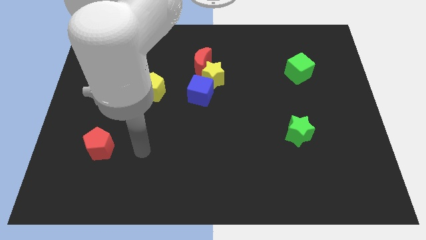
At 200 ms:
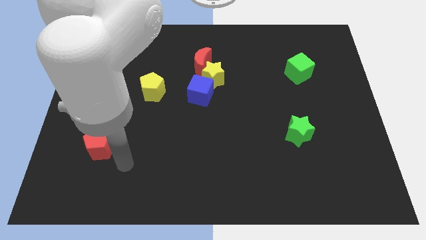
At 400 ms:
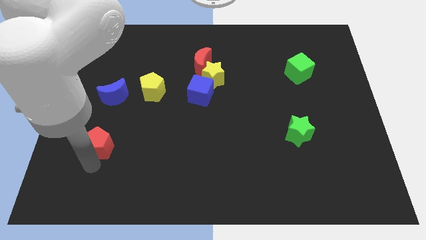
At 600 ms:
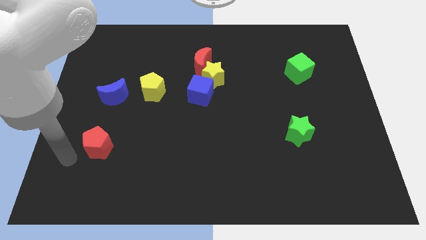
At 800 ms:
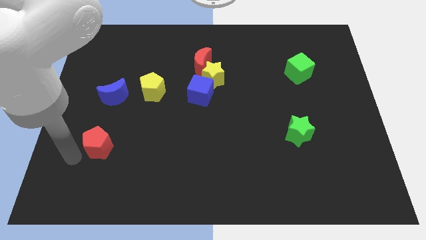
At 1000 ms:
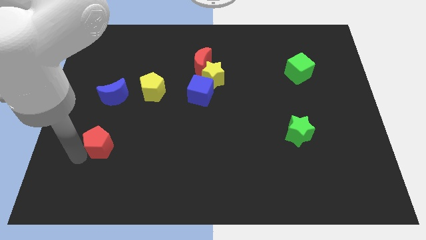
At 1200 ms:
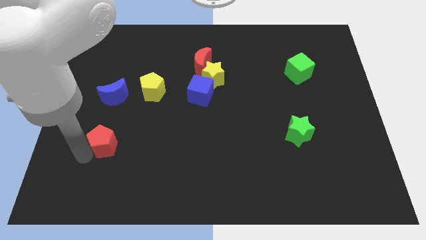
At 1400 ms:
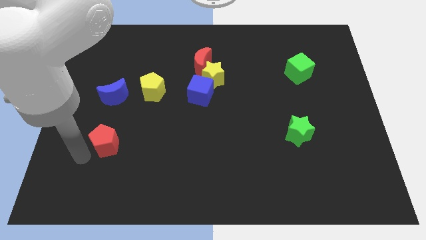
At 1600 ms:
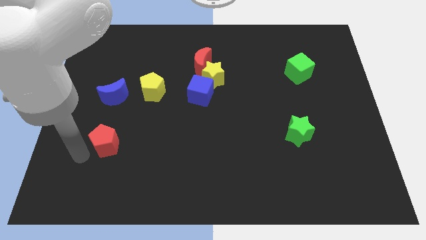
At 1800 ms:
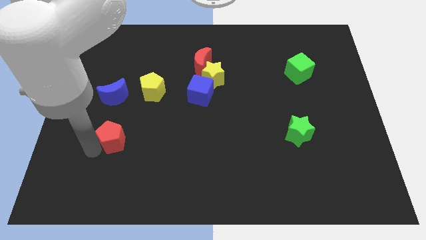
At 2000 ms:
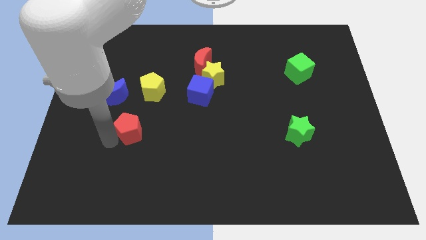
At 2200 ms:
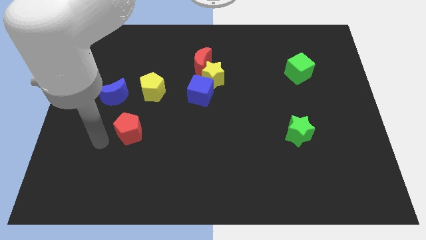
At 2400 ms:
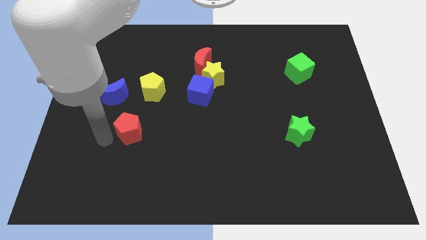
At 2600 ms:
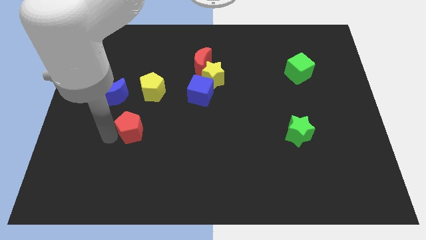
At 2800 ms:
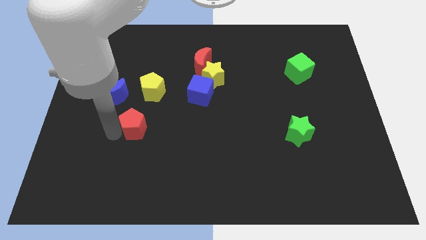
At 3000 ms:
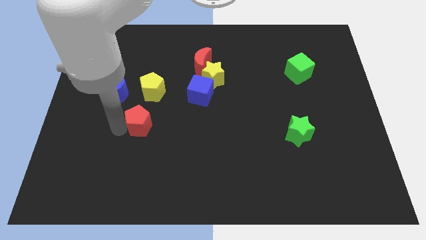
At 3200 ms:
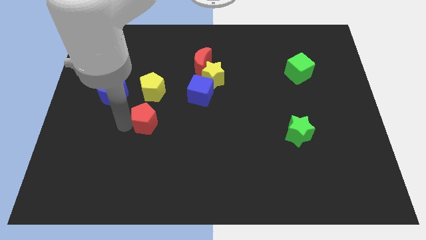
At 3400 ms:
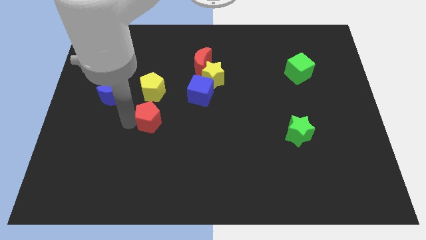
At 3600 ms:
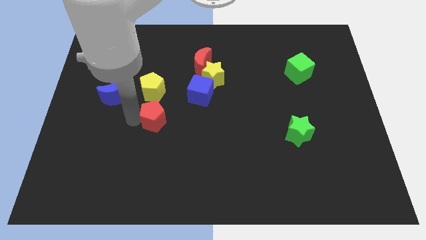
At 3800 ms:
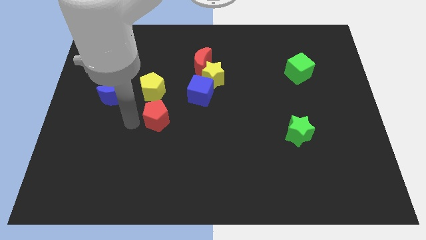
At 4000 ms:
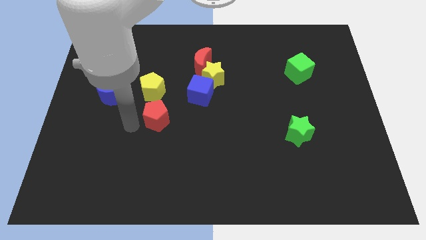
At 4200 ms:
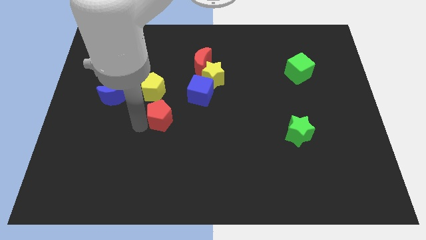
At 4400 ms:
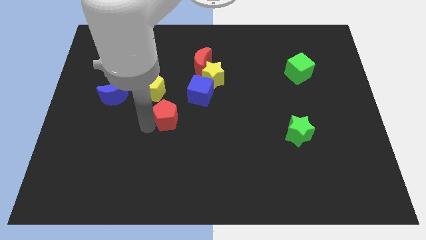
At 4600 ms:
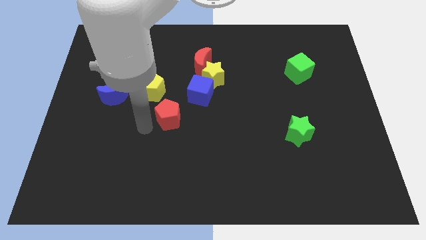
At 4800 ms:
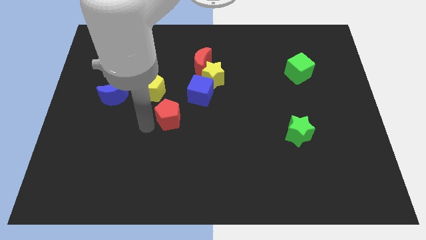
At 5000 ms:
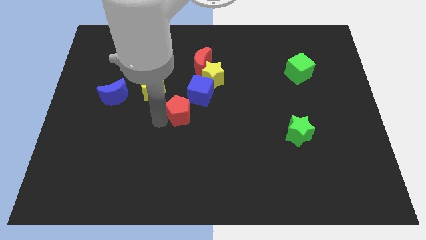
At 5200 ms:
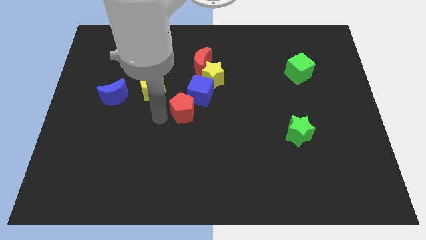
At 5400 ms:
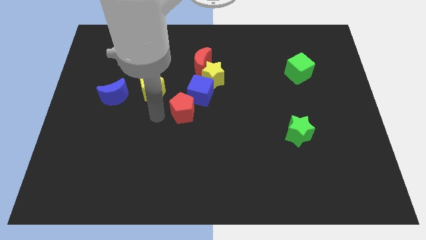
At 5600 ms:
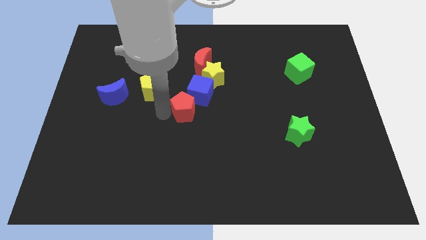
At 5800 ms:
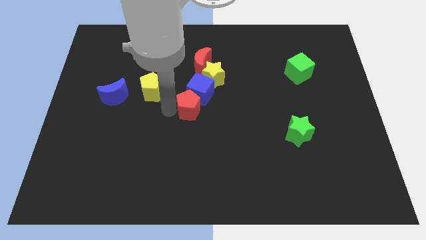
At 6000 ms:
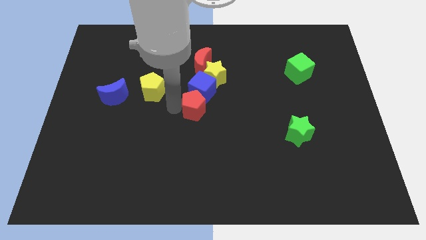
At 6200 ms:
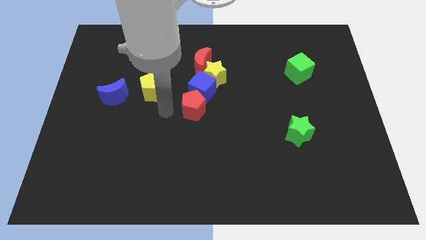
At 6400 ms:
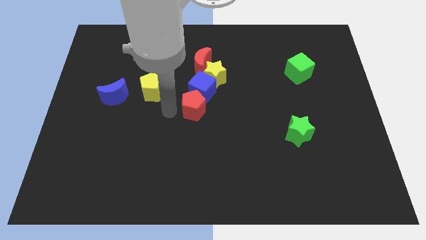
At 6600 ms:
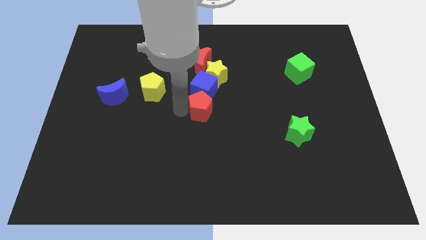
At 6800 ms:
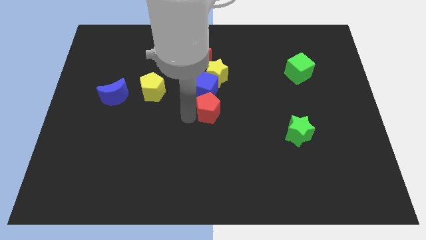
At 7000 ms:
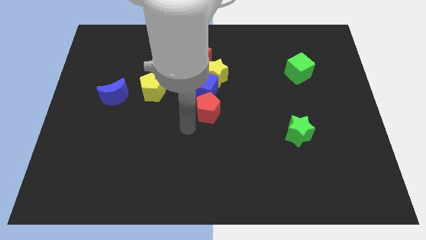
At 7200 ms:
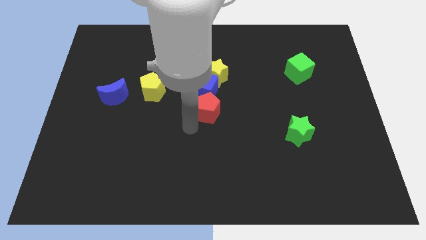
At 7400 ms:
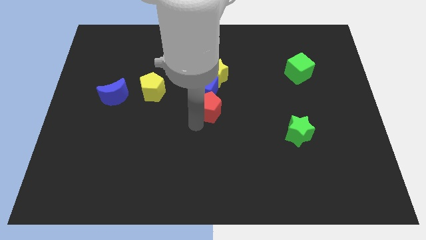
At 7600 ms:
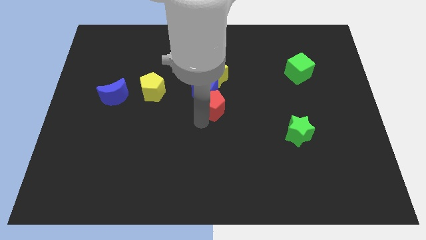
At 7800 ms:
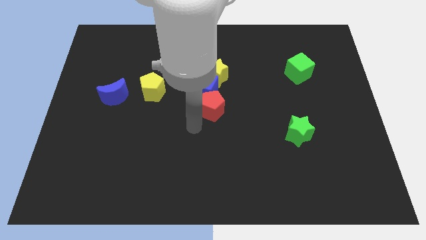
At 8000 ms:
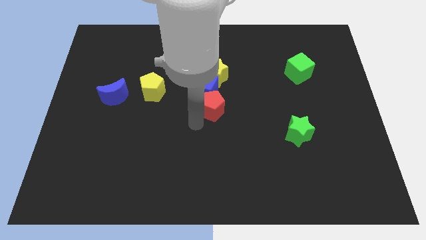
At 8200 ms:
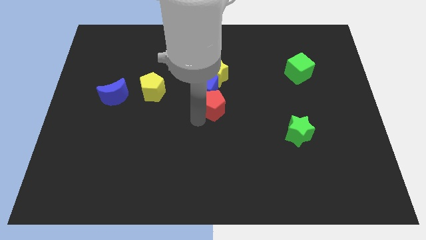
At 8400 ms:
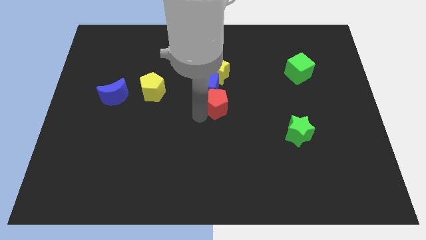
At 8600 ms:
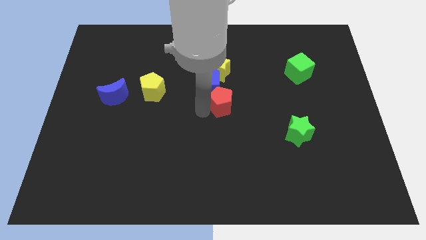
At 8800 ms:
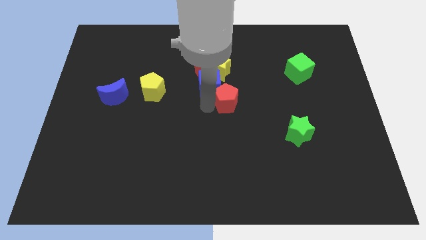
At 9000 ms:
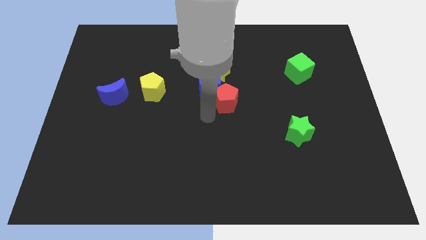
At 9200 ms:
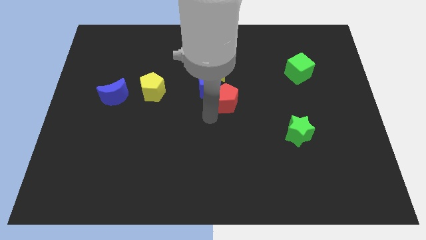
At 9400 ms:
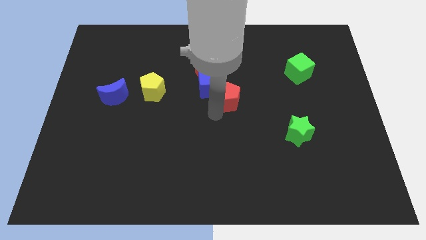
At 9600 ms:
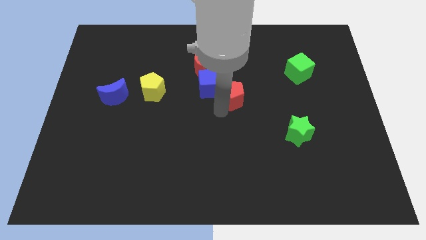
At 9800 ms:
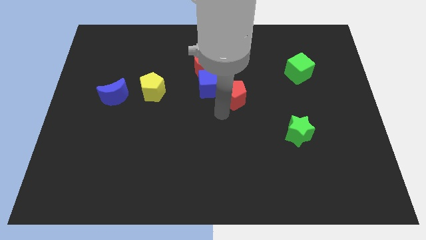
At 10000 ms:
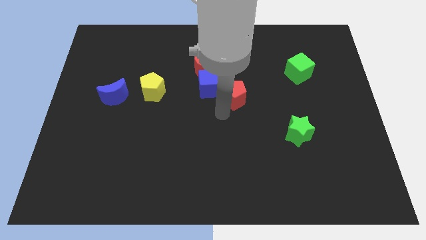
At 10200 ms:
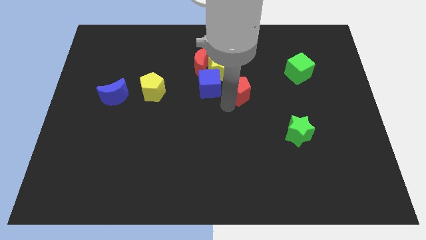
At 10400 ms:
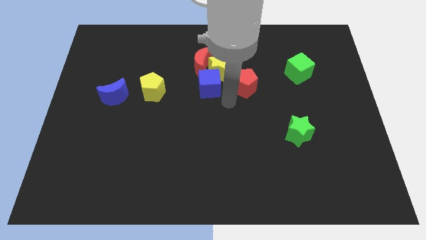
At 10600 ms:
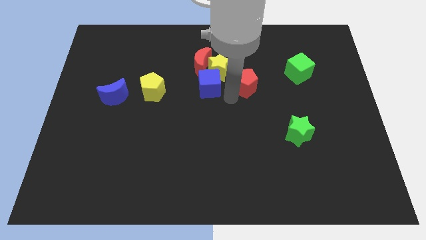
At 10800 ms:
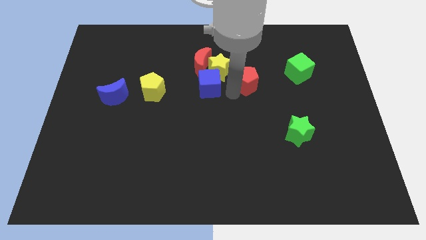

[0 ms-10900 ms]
put the red pentagon to the left side of the green cube

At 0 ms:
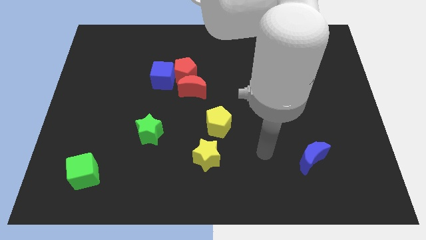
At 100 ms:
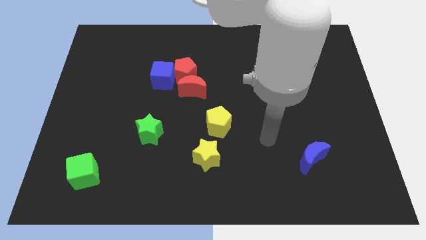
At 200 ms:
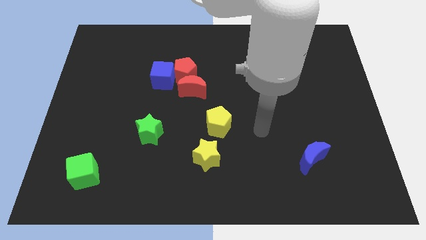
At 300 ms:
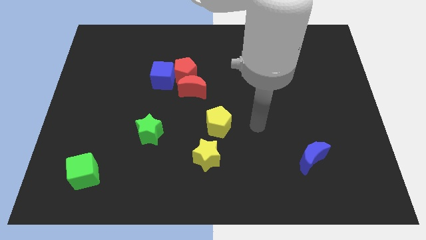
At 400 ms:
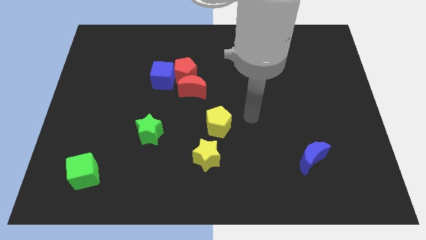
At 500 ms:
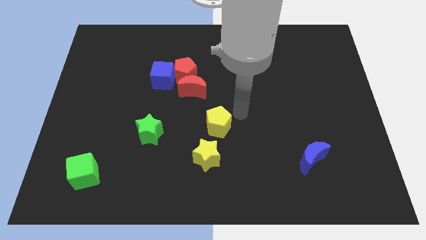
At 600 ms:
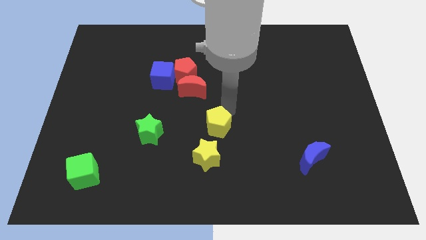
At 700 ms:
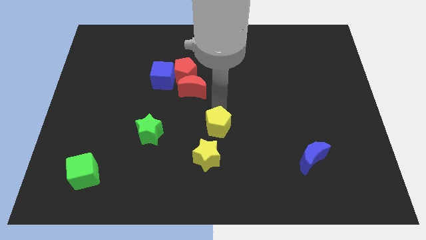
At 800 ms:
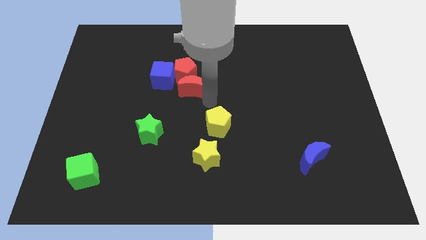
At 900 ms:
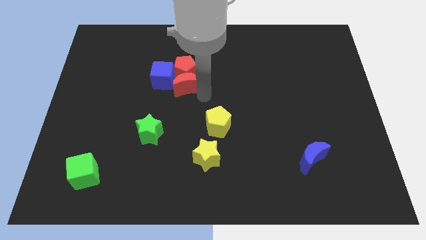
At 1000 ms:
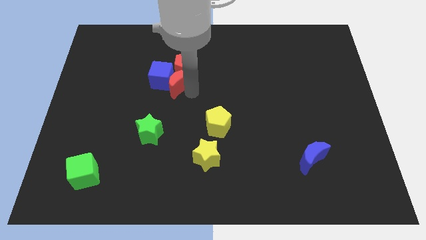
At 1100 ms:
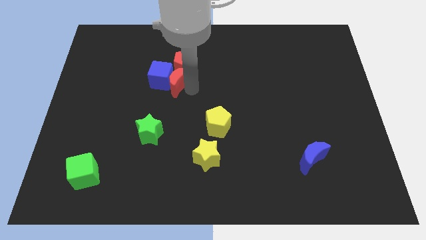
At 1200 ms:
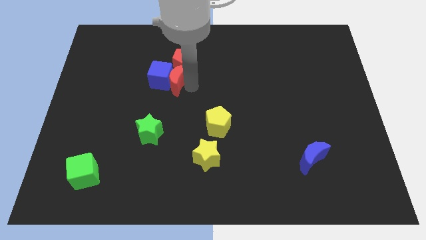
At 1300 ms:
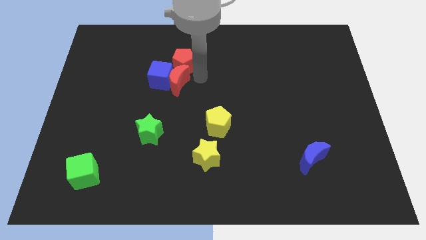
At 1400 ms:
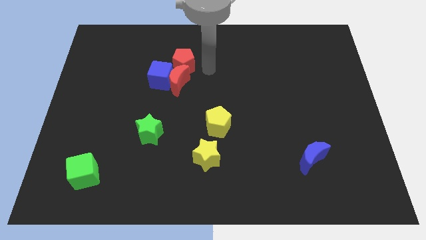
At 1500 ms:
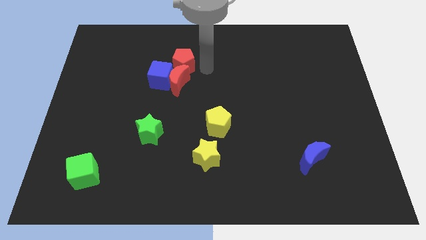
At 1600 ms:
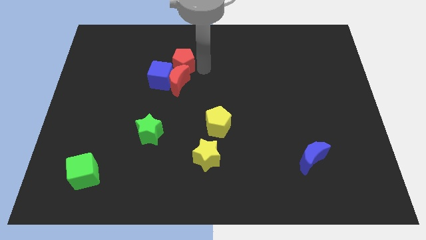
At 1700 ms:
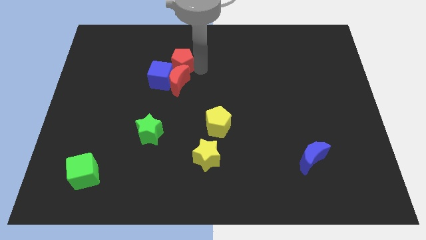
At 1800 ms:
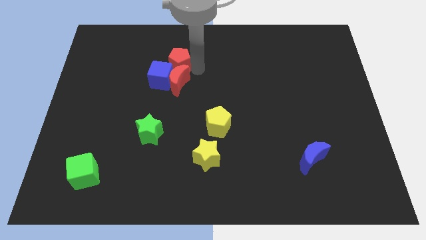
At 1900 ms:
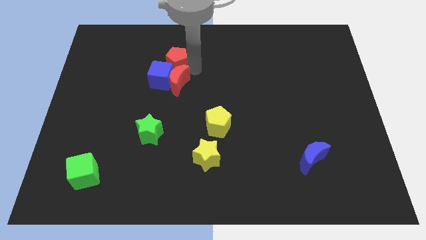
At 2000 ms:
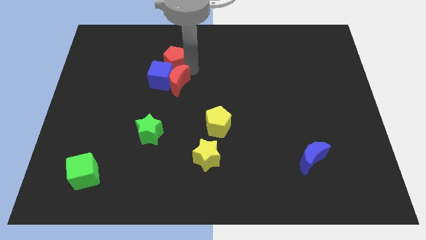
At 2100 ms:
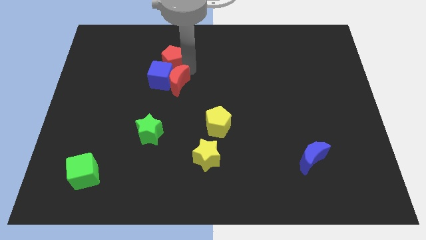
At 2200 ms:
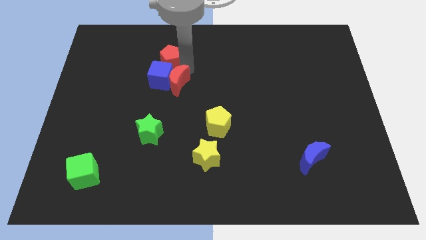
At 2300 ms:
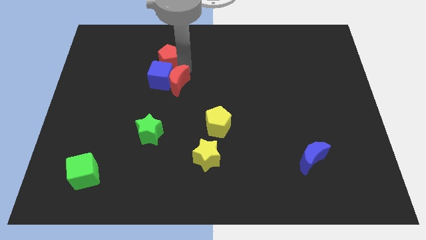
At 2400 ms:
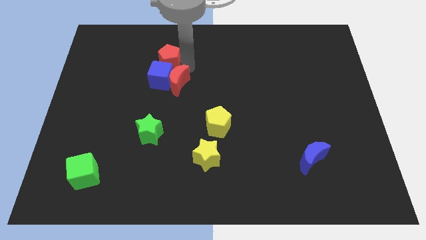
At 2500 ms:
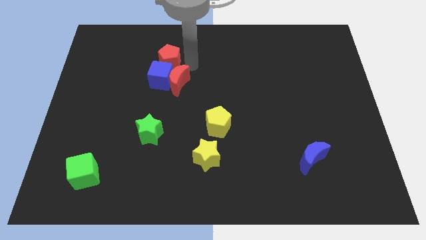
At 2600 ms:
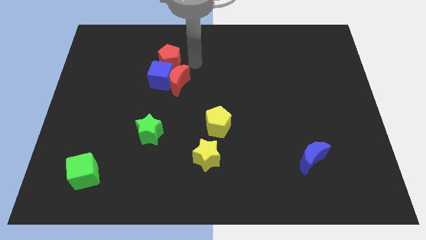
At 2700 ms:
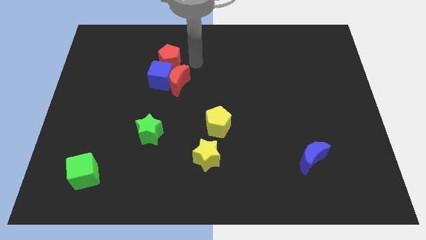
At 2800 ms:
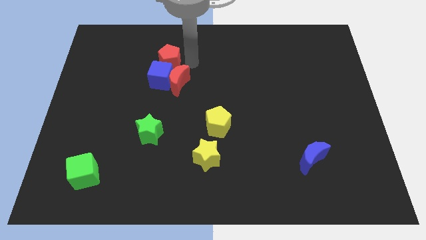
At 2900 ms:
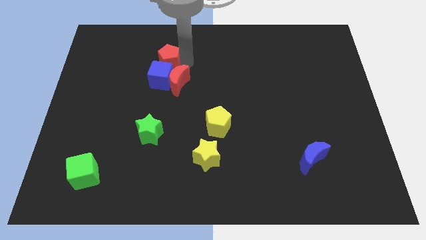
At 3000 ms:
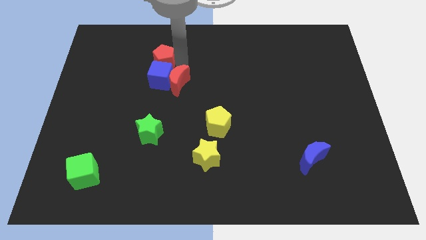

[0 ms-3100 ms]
slide the red pentagon to the top left of the blue cube
